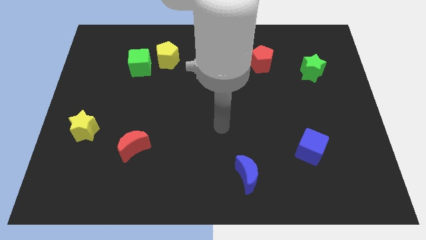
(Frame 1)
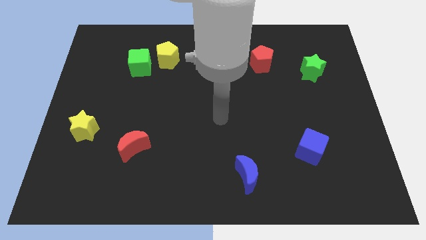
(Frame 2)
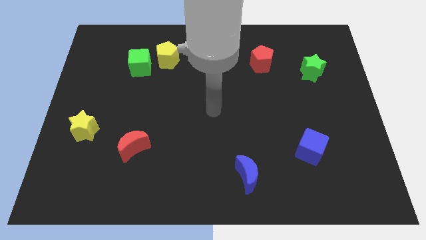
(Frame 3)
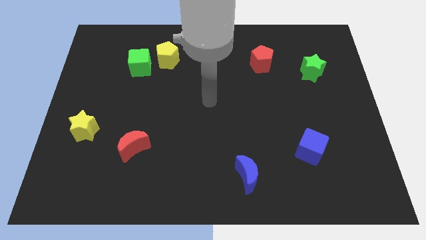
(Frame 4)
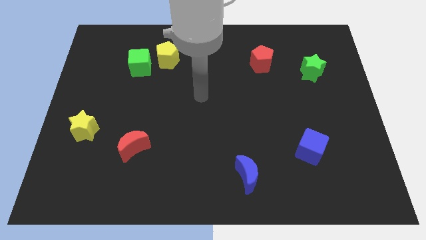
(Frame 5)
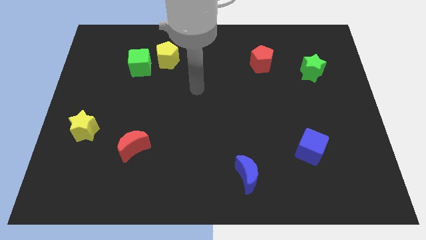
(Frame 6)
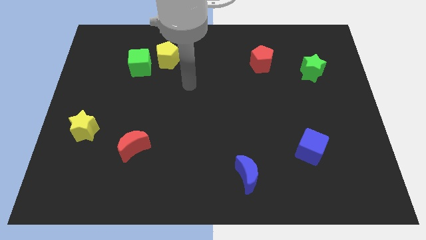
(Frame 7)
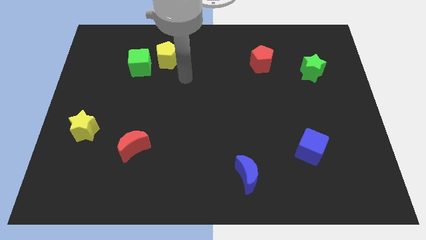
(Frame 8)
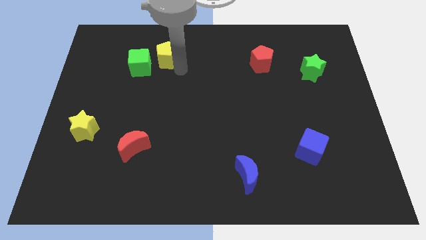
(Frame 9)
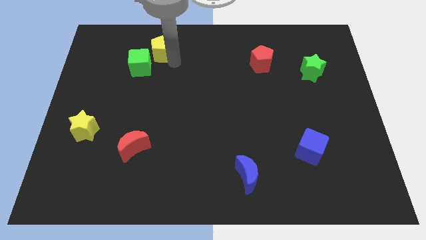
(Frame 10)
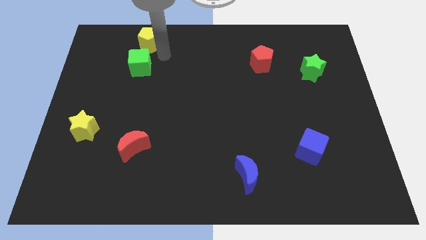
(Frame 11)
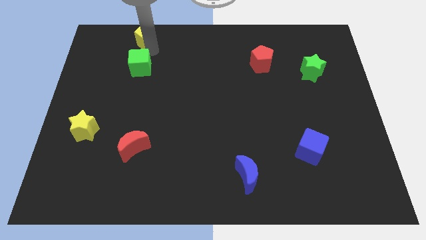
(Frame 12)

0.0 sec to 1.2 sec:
separate the green cube from the yellow pentagon

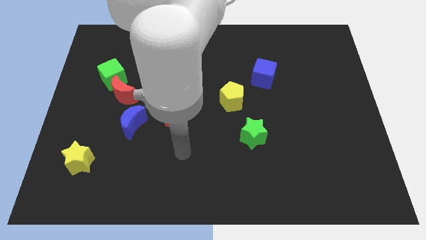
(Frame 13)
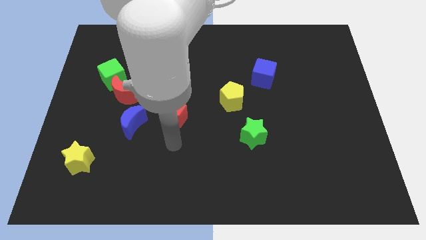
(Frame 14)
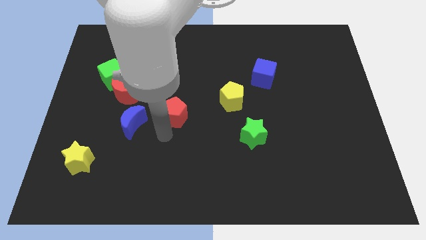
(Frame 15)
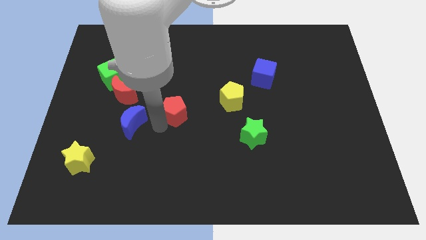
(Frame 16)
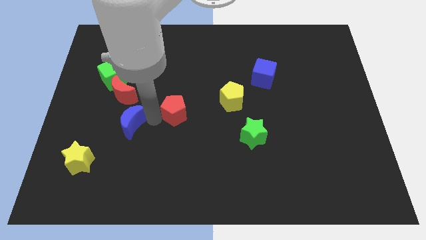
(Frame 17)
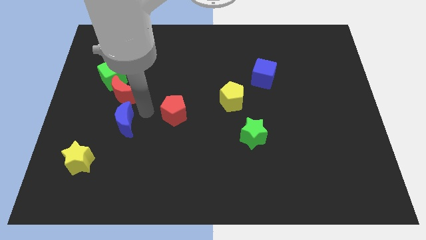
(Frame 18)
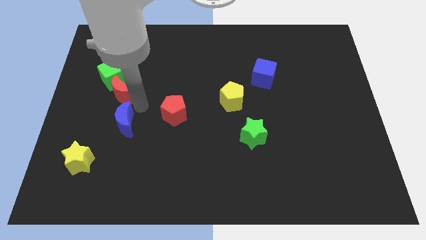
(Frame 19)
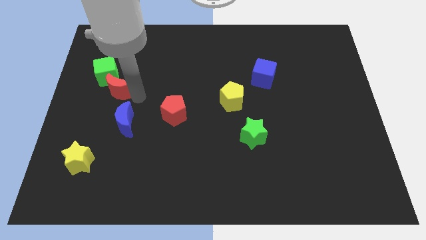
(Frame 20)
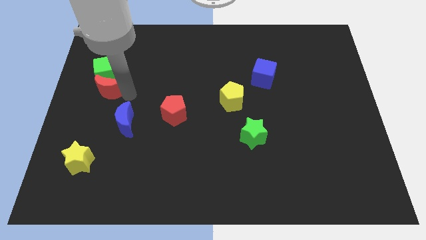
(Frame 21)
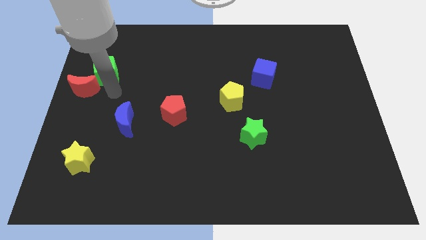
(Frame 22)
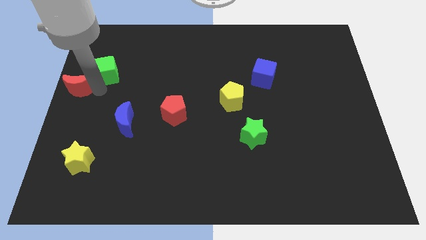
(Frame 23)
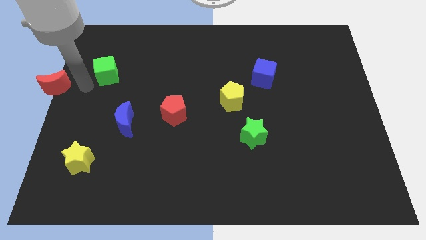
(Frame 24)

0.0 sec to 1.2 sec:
move the green cube away from the red moon

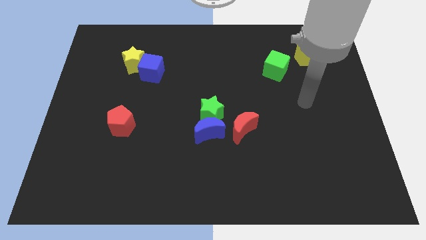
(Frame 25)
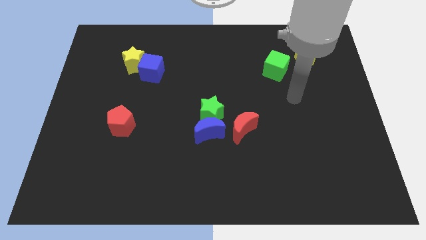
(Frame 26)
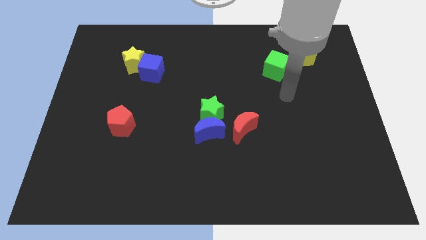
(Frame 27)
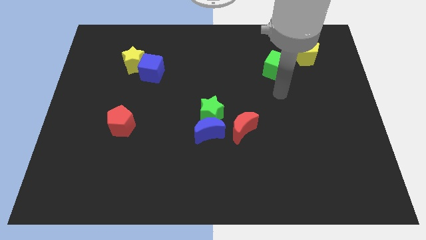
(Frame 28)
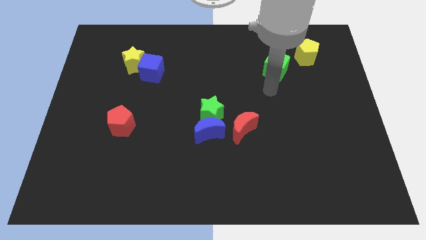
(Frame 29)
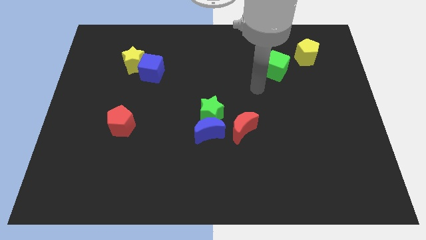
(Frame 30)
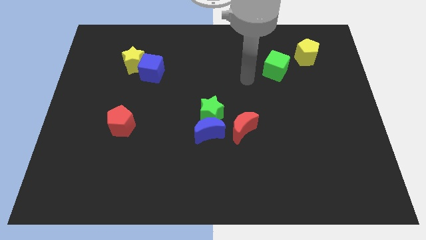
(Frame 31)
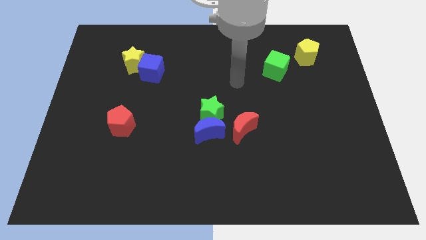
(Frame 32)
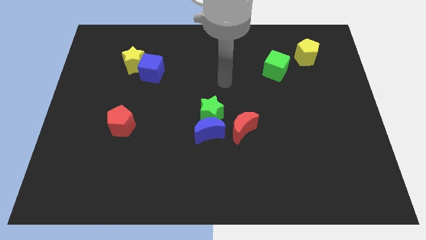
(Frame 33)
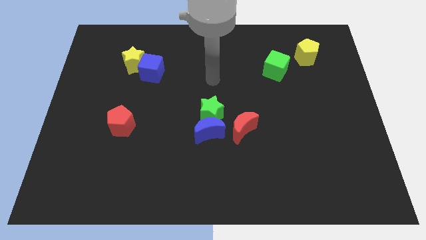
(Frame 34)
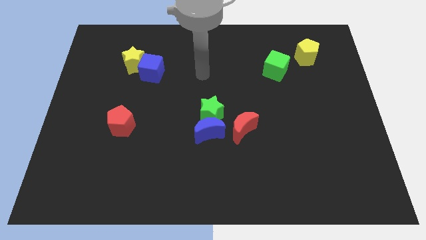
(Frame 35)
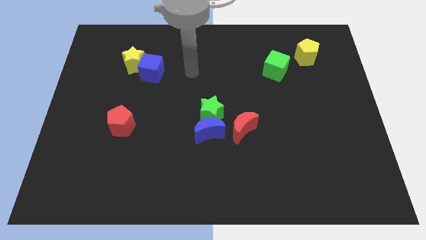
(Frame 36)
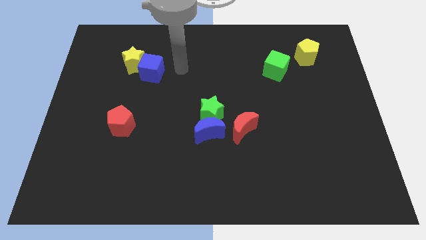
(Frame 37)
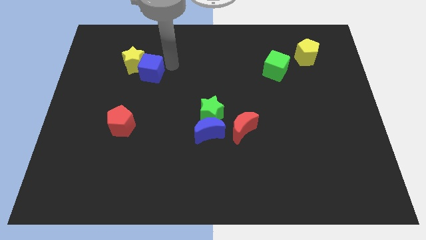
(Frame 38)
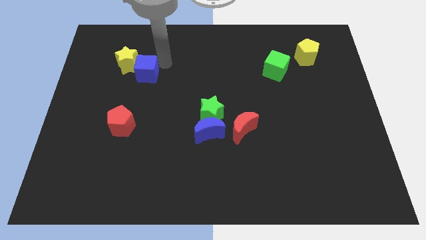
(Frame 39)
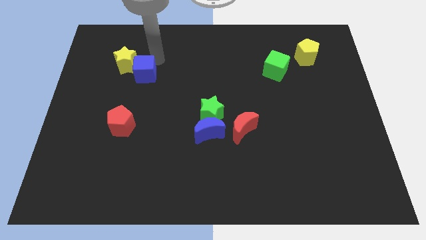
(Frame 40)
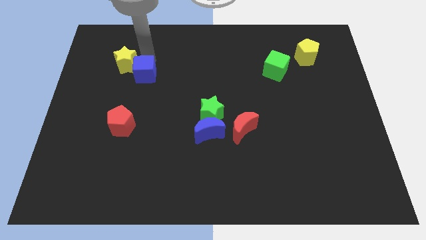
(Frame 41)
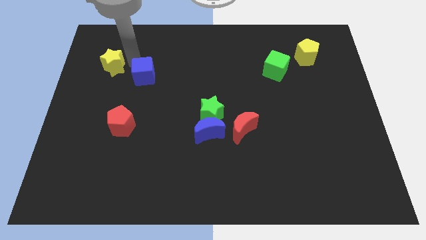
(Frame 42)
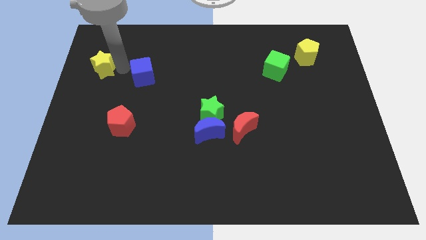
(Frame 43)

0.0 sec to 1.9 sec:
separate the blue cube from the yellow star

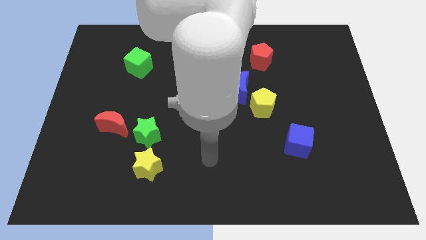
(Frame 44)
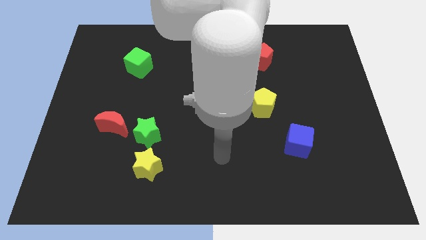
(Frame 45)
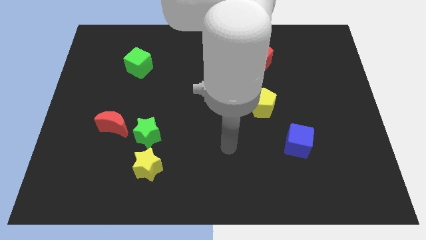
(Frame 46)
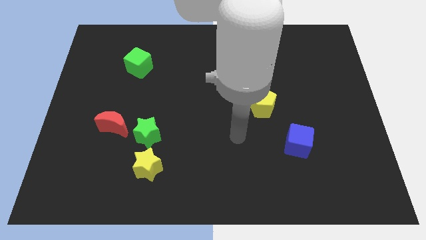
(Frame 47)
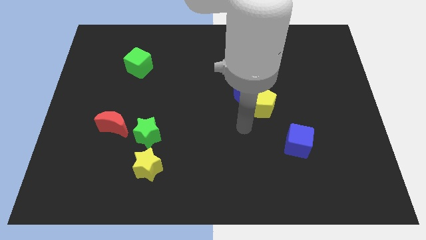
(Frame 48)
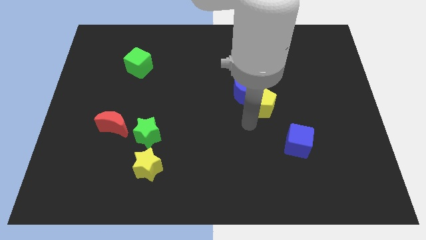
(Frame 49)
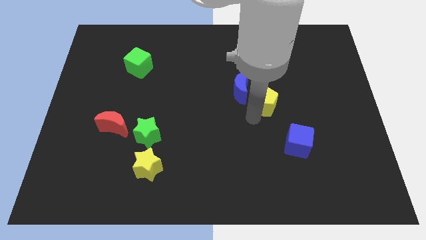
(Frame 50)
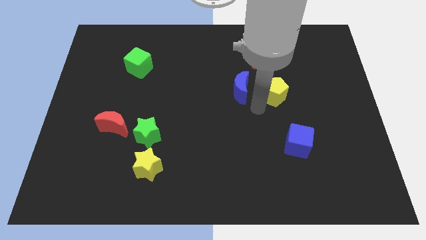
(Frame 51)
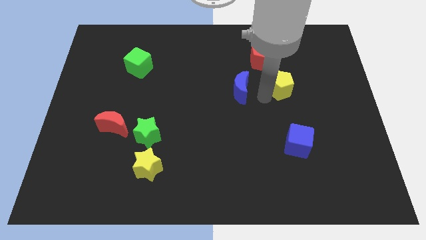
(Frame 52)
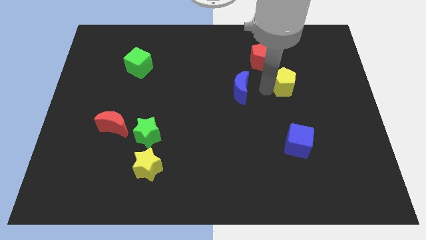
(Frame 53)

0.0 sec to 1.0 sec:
separate the blue moon from the yellow pentagon

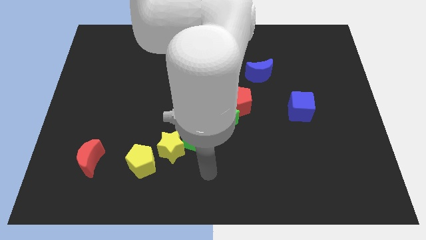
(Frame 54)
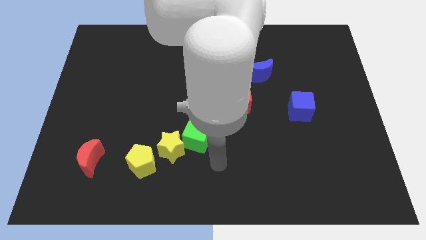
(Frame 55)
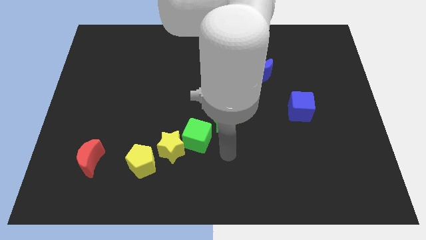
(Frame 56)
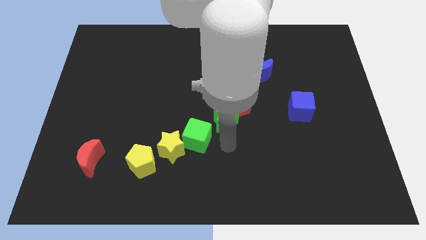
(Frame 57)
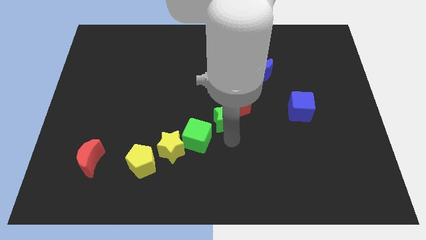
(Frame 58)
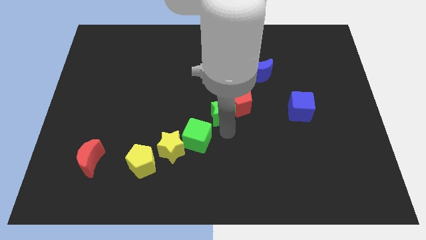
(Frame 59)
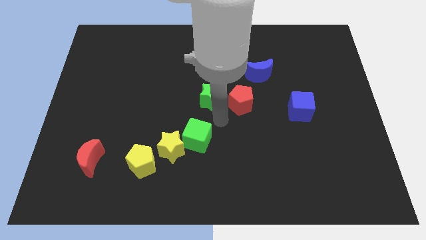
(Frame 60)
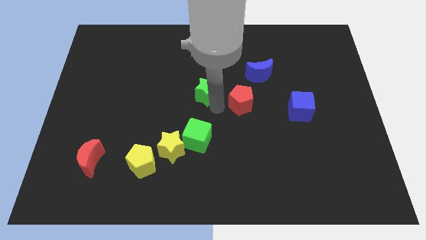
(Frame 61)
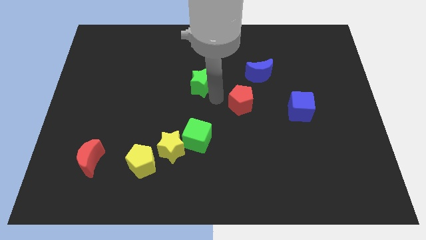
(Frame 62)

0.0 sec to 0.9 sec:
separate the red pentagon from the green star

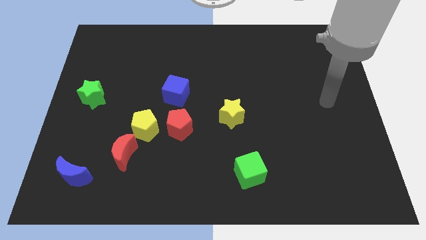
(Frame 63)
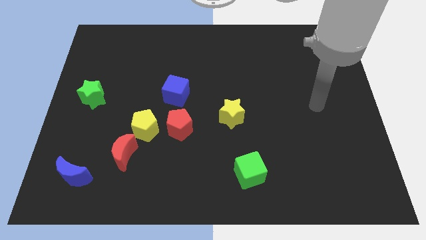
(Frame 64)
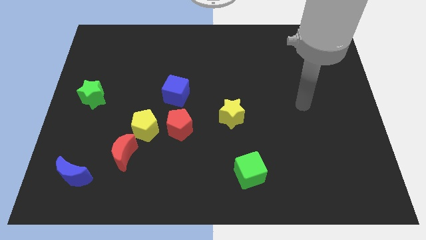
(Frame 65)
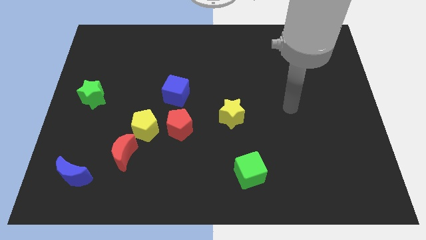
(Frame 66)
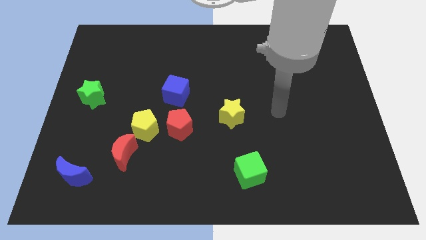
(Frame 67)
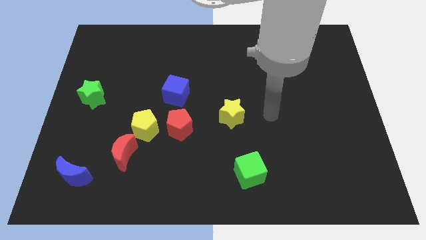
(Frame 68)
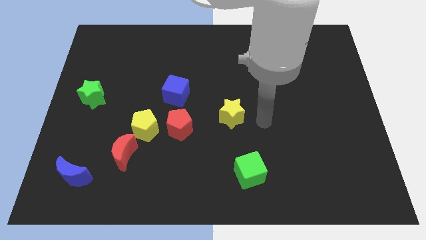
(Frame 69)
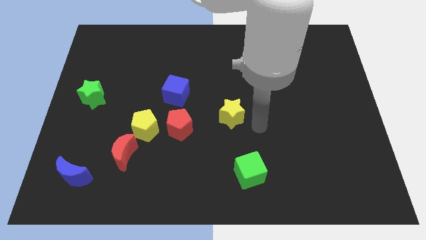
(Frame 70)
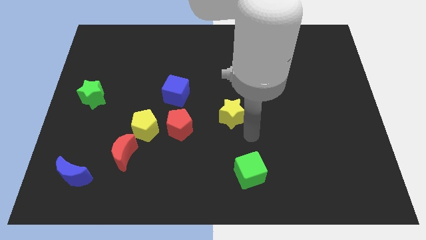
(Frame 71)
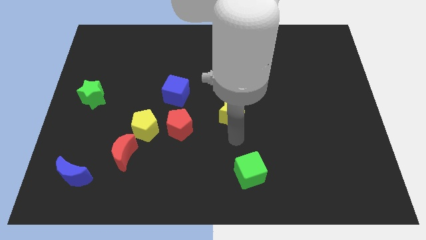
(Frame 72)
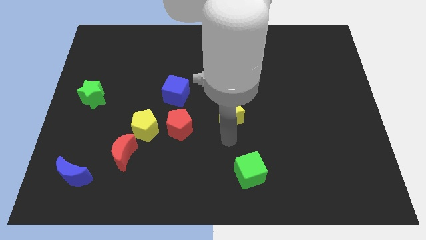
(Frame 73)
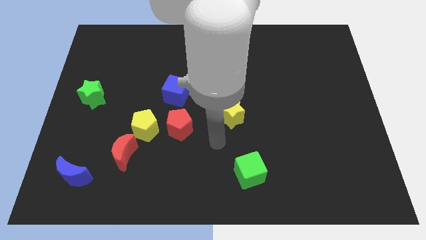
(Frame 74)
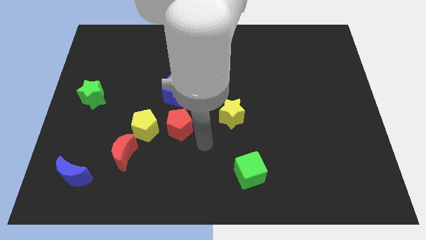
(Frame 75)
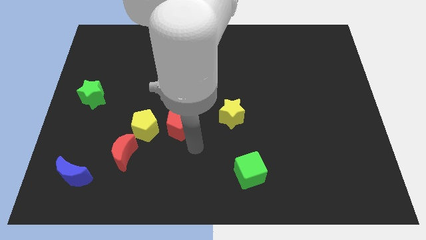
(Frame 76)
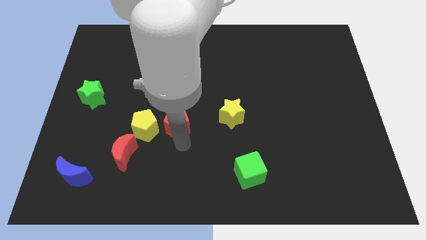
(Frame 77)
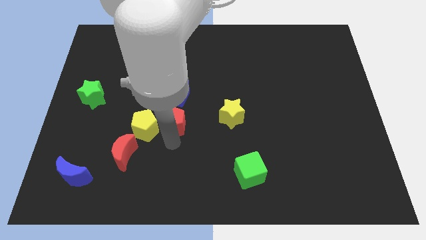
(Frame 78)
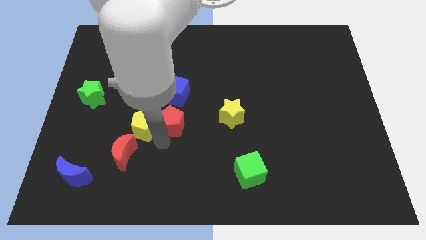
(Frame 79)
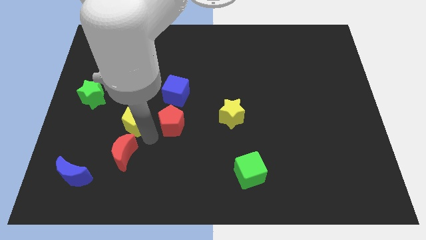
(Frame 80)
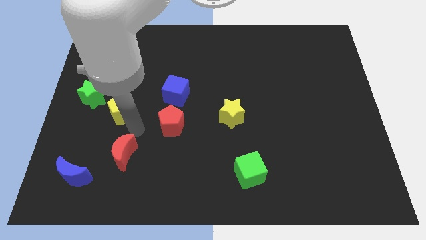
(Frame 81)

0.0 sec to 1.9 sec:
separate the red moon from the yellow pentagon

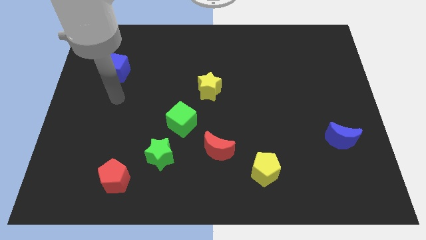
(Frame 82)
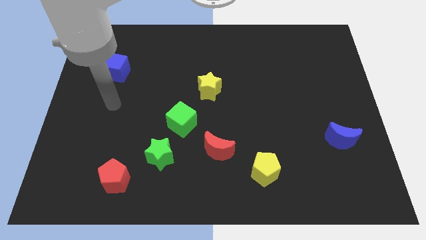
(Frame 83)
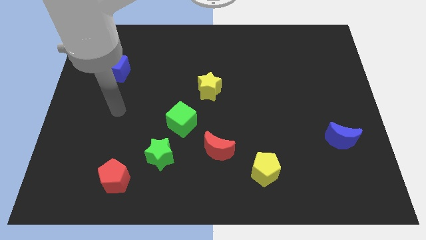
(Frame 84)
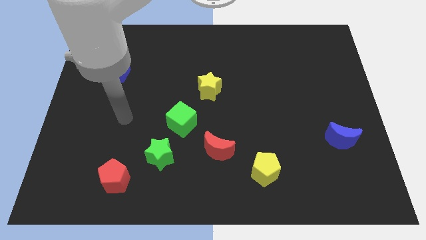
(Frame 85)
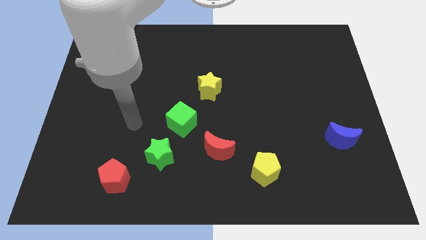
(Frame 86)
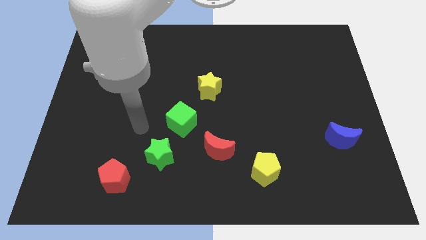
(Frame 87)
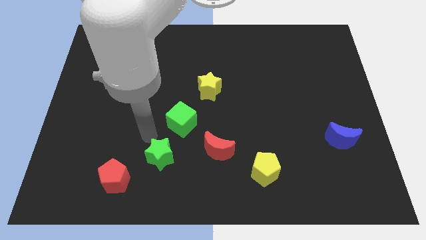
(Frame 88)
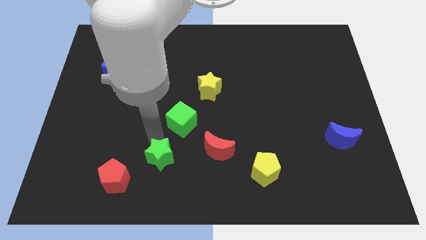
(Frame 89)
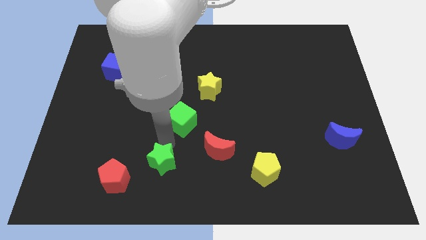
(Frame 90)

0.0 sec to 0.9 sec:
pull the green cube apart from the green star

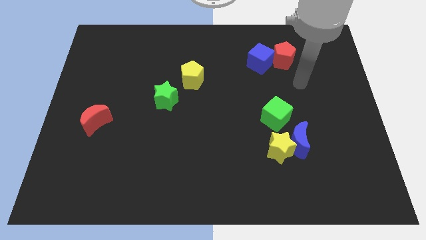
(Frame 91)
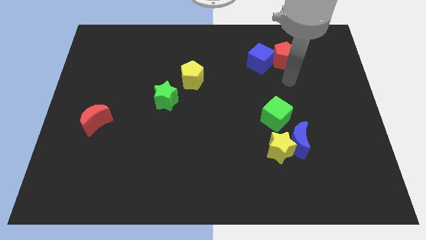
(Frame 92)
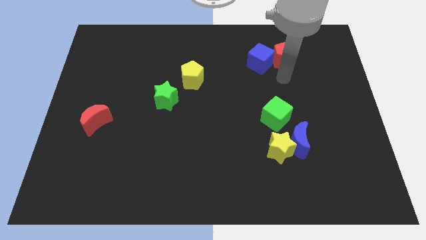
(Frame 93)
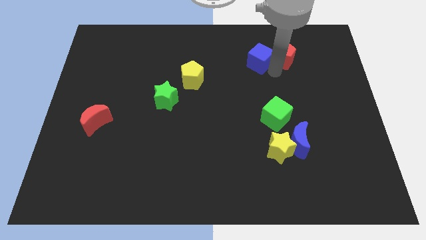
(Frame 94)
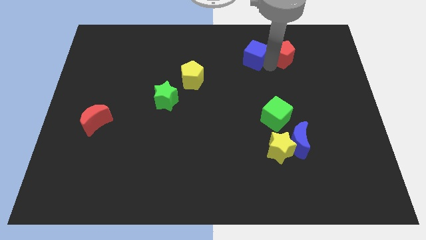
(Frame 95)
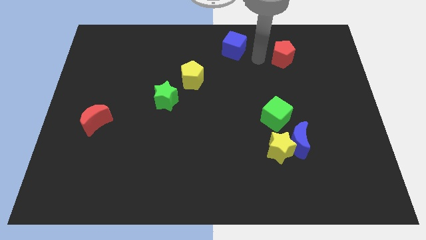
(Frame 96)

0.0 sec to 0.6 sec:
move the red pentagon away from the blue cube
